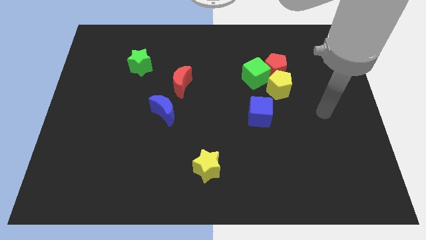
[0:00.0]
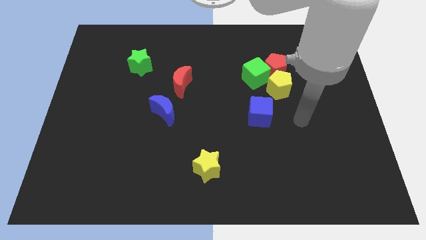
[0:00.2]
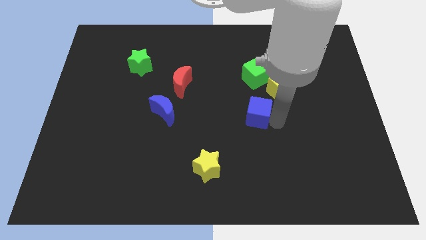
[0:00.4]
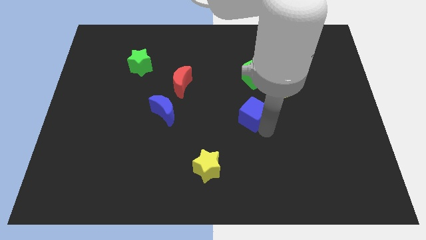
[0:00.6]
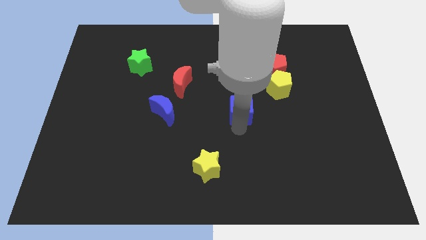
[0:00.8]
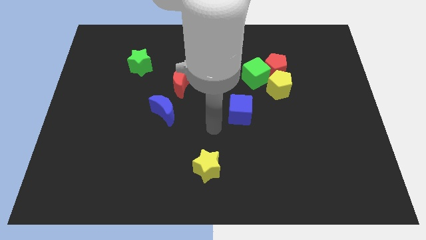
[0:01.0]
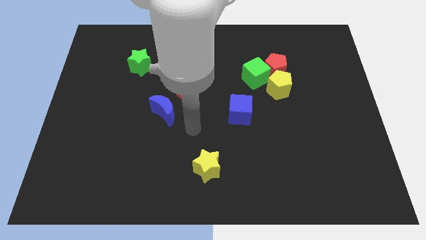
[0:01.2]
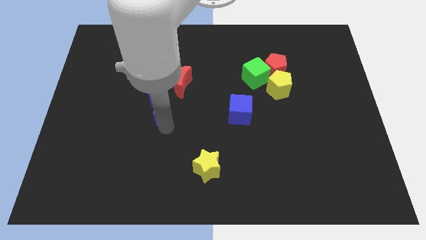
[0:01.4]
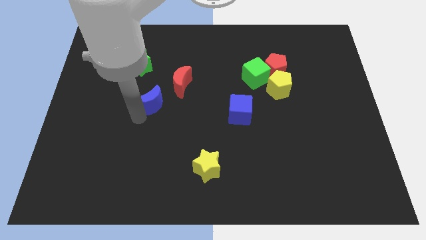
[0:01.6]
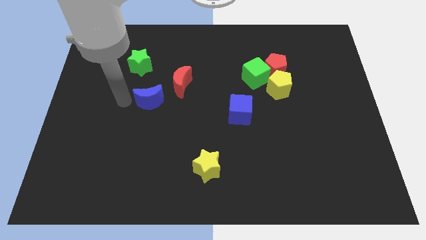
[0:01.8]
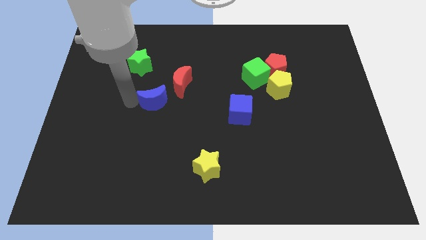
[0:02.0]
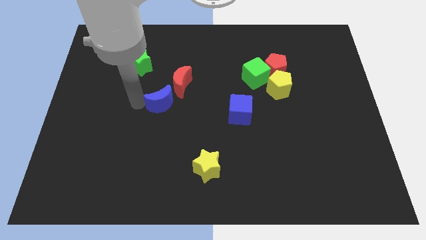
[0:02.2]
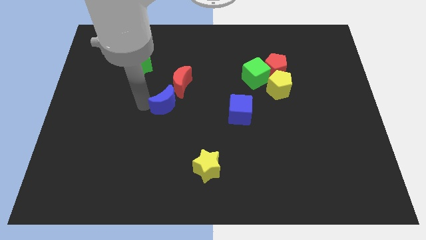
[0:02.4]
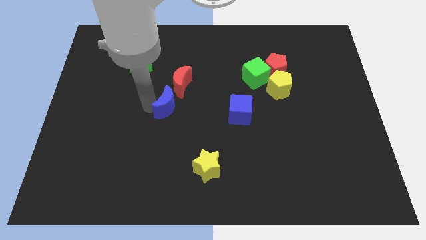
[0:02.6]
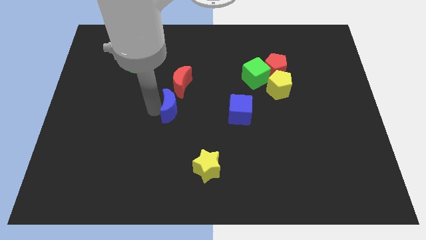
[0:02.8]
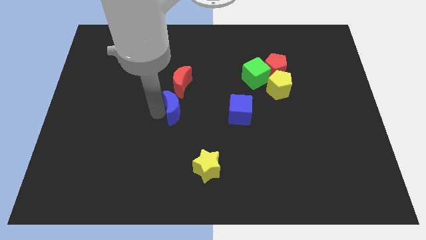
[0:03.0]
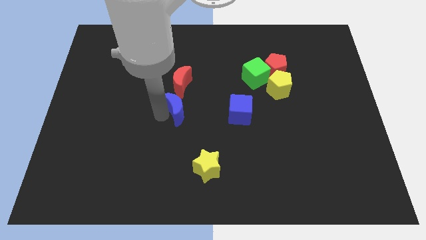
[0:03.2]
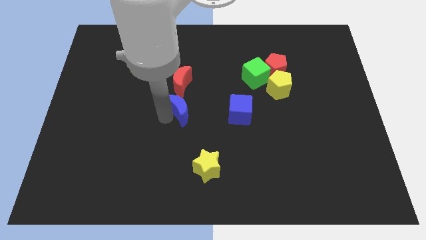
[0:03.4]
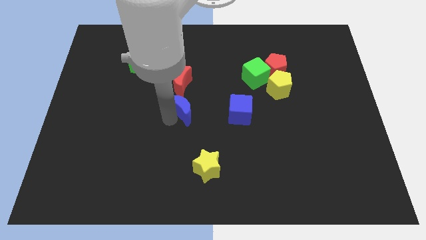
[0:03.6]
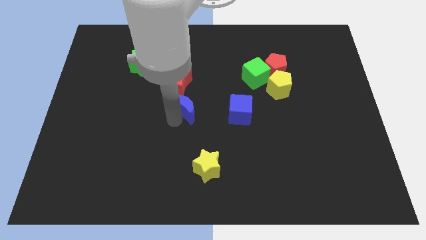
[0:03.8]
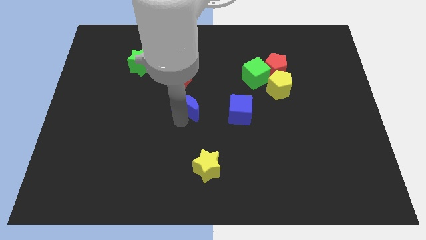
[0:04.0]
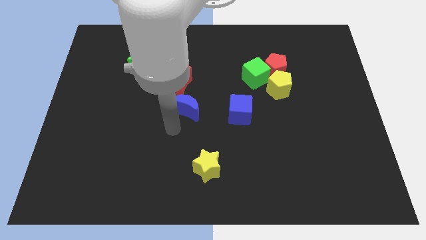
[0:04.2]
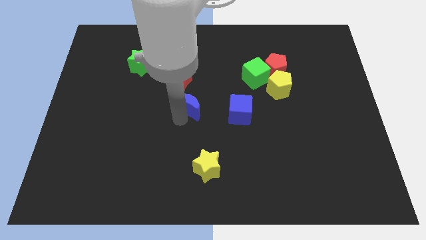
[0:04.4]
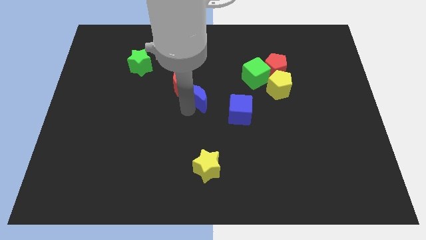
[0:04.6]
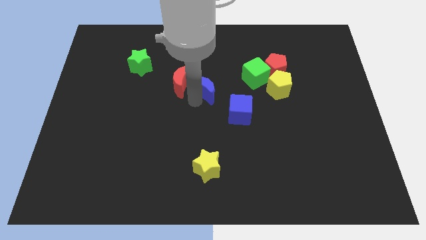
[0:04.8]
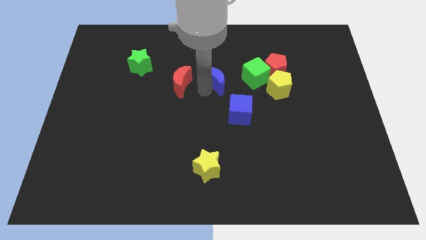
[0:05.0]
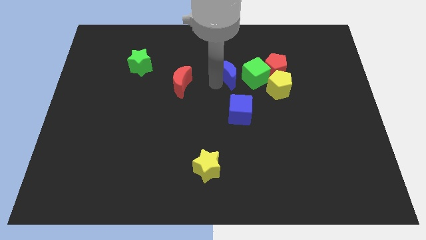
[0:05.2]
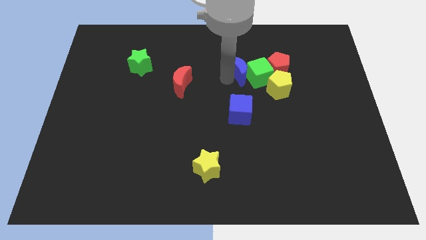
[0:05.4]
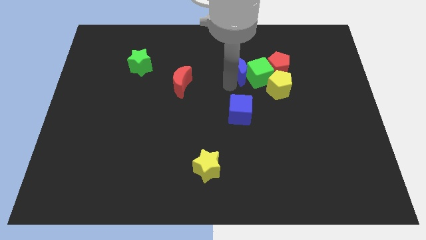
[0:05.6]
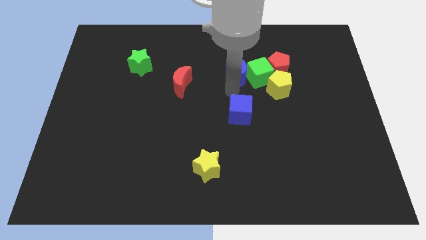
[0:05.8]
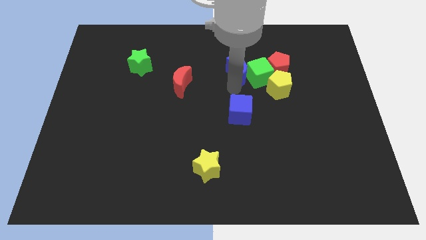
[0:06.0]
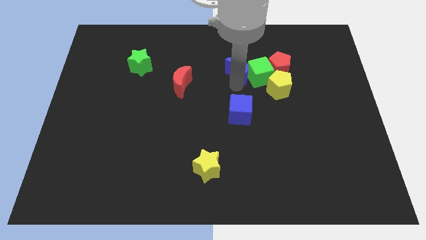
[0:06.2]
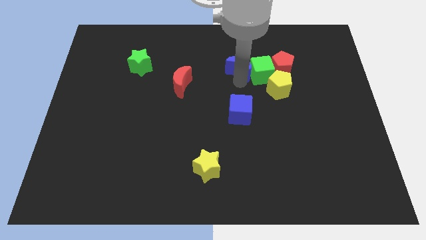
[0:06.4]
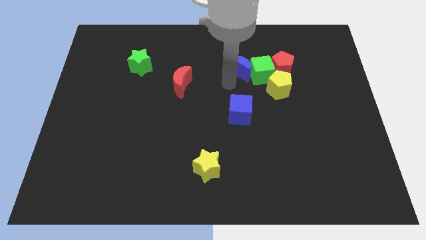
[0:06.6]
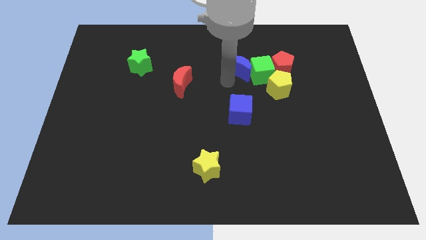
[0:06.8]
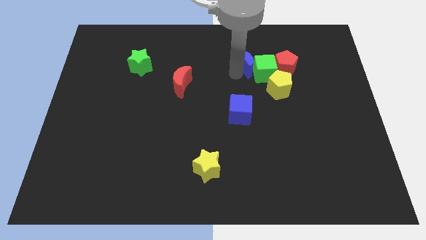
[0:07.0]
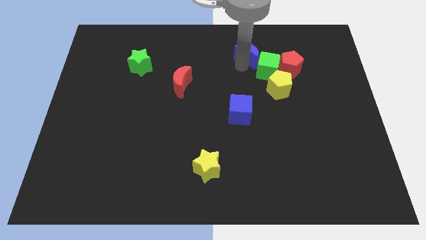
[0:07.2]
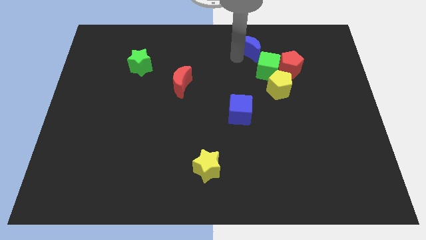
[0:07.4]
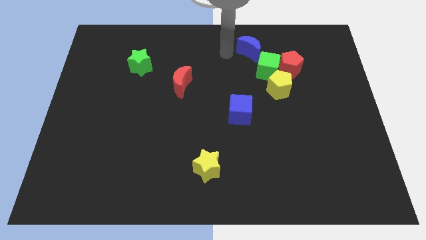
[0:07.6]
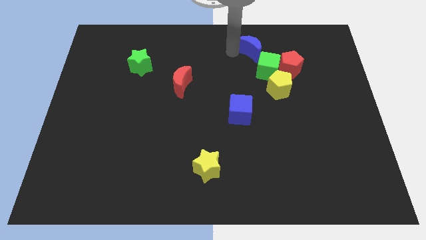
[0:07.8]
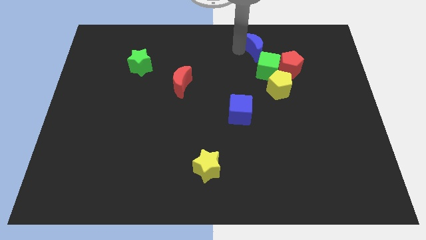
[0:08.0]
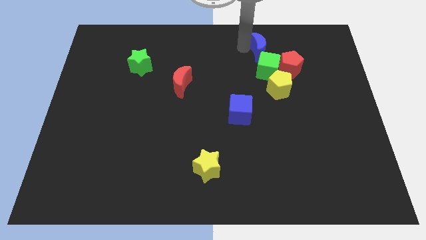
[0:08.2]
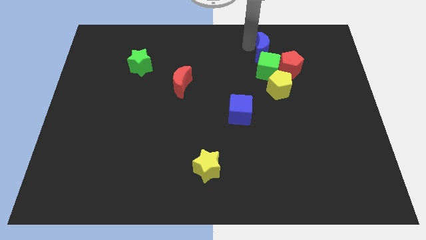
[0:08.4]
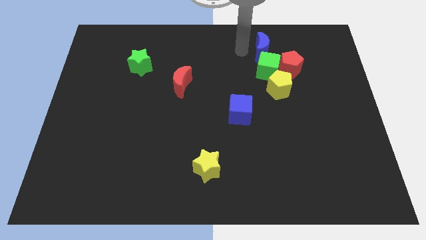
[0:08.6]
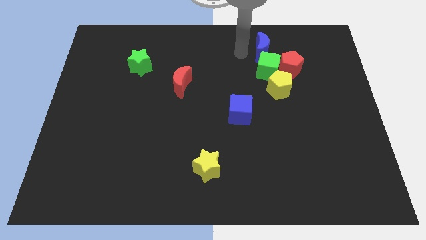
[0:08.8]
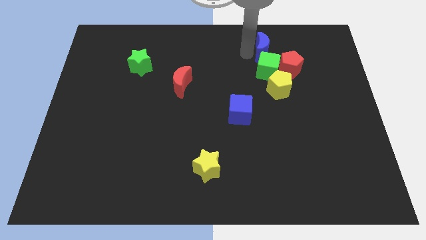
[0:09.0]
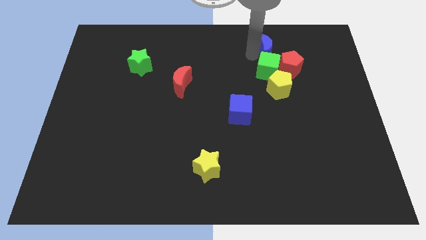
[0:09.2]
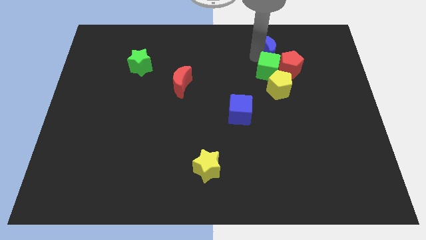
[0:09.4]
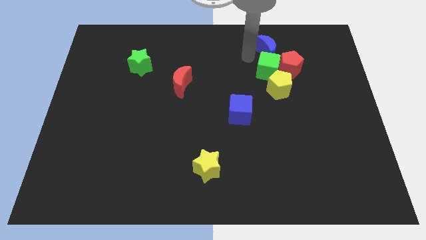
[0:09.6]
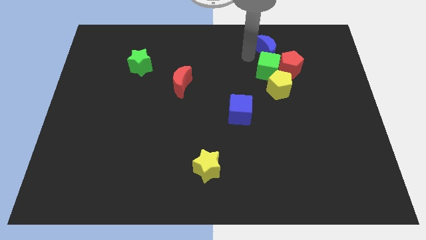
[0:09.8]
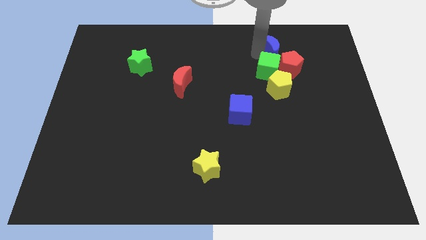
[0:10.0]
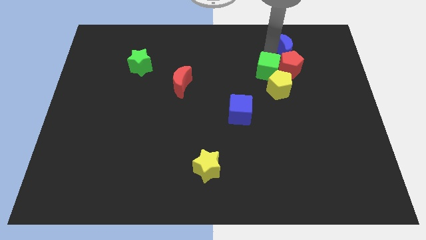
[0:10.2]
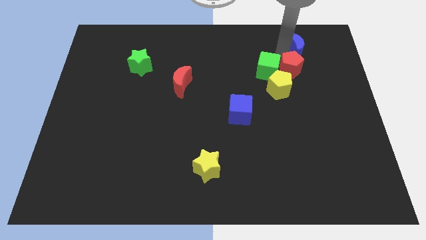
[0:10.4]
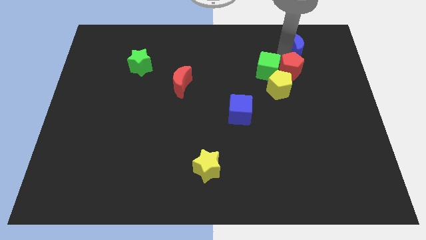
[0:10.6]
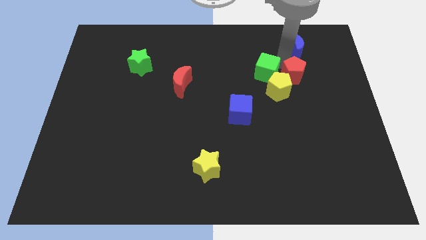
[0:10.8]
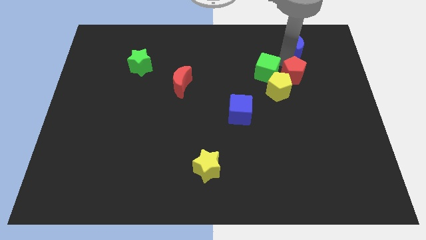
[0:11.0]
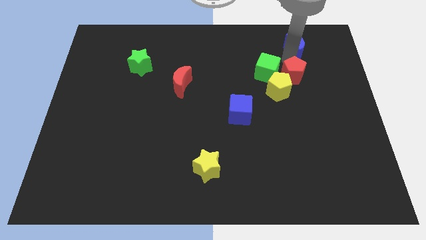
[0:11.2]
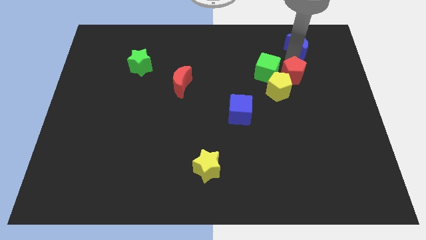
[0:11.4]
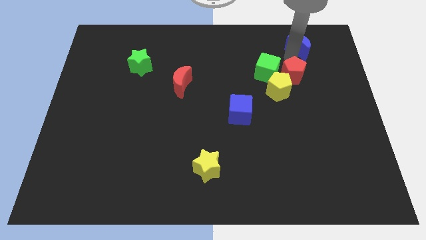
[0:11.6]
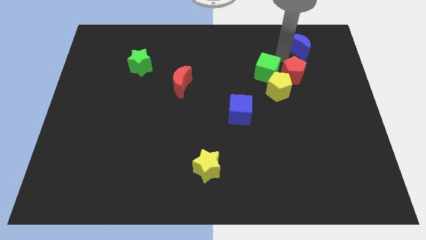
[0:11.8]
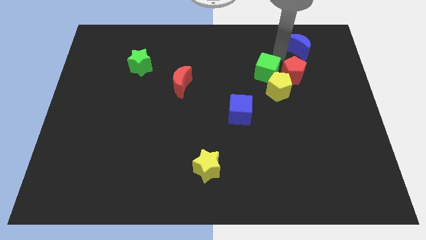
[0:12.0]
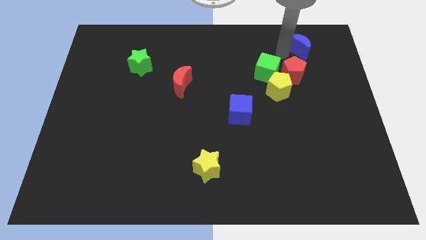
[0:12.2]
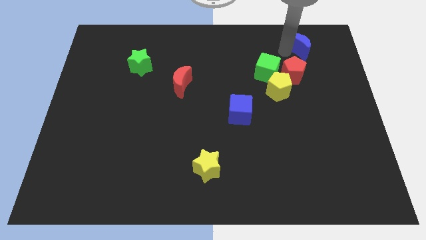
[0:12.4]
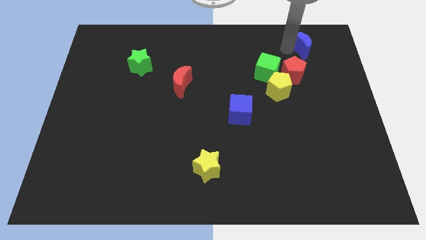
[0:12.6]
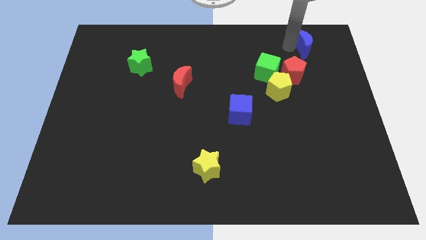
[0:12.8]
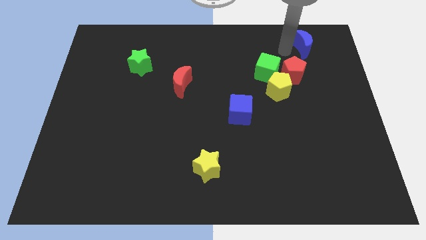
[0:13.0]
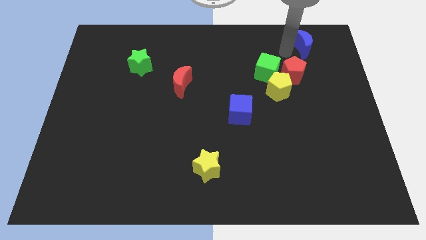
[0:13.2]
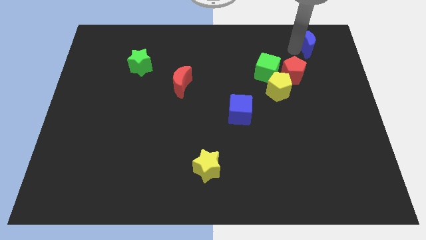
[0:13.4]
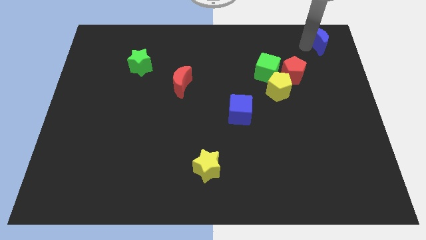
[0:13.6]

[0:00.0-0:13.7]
slide the blue moon to the top right of the board

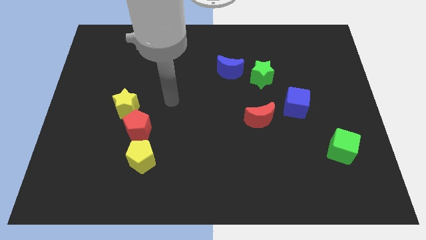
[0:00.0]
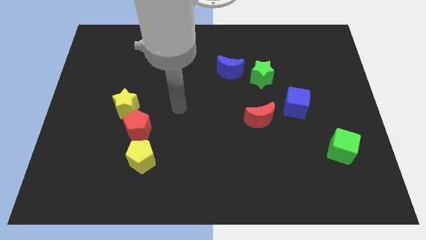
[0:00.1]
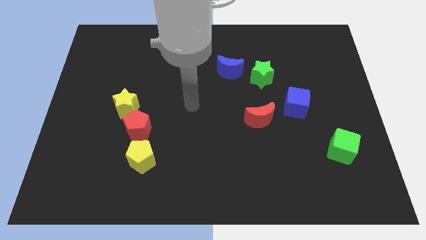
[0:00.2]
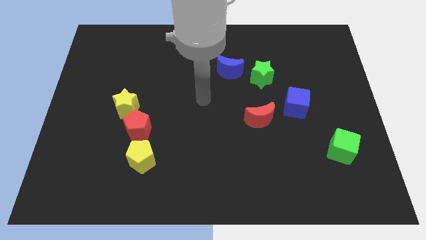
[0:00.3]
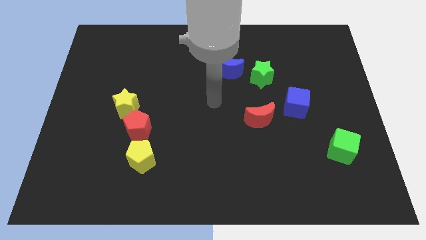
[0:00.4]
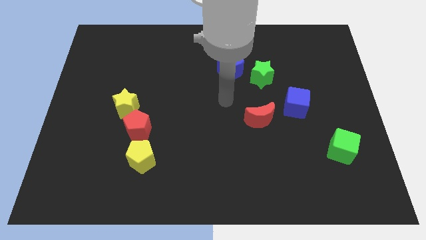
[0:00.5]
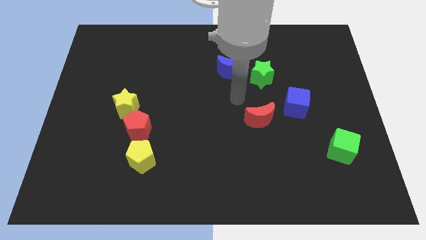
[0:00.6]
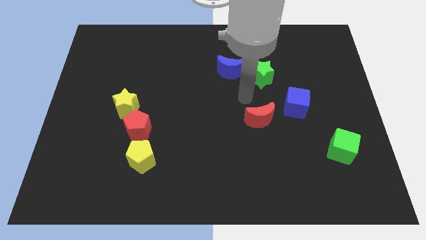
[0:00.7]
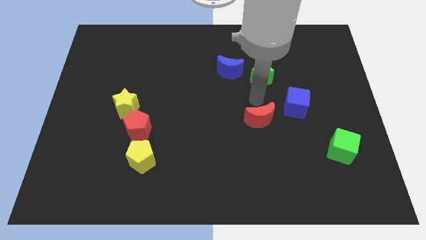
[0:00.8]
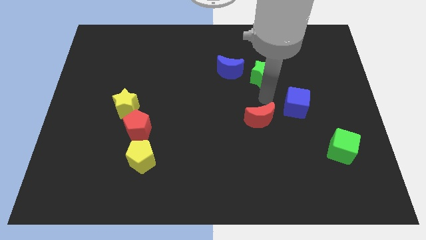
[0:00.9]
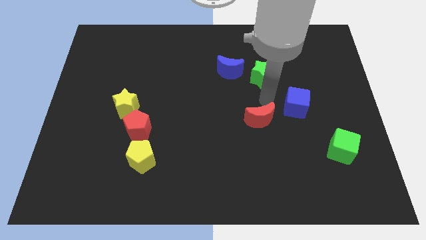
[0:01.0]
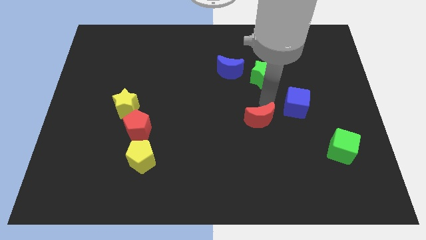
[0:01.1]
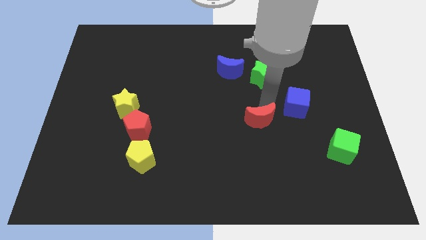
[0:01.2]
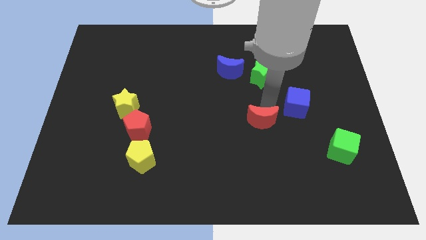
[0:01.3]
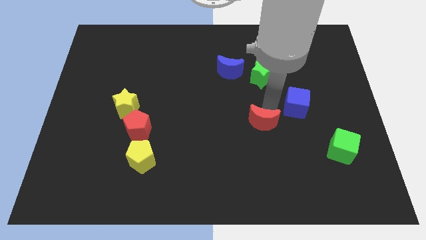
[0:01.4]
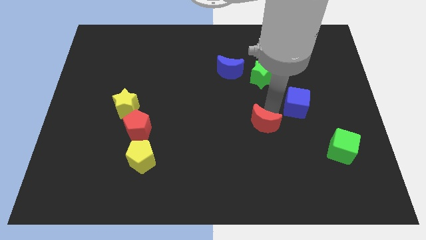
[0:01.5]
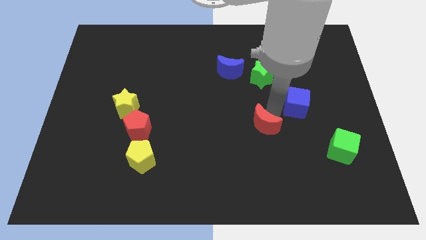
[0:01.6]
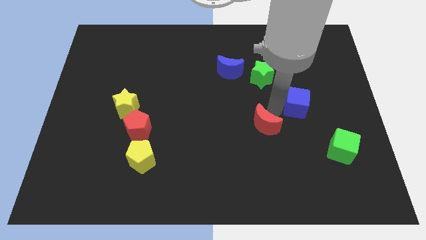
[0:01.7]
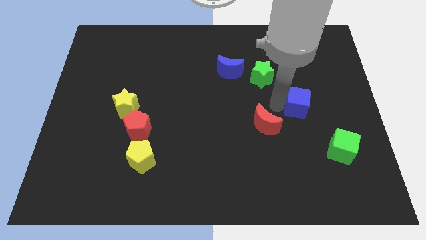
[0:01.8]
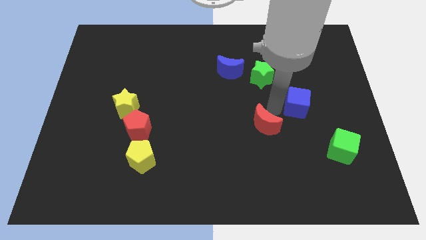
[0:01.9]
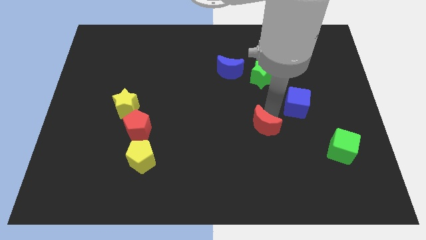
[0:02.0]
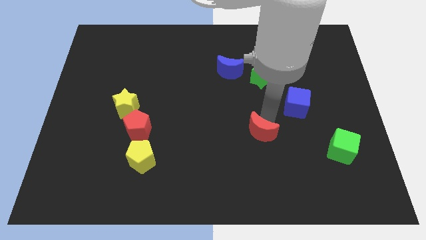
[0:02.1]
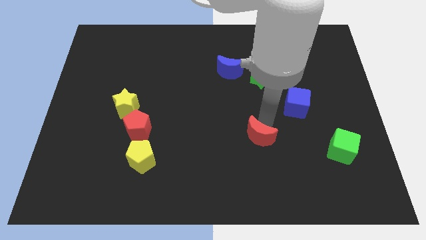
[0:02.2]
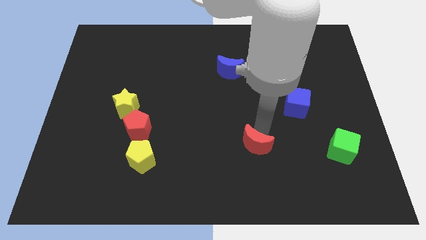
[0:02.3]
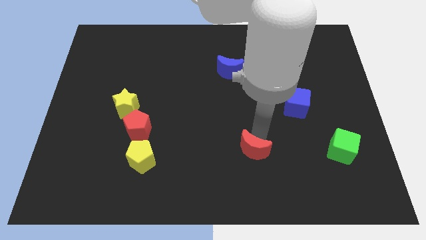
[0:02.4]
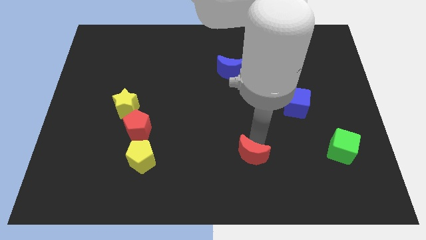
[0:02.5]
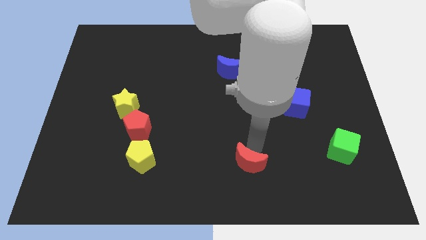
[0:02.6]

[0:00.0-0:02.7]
push the red moon to the bottom side
